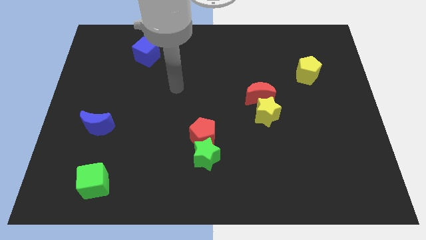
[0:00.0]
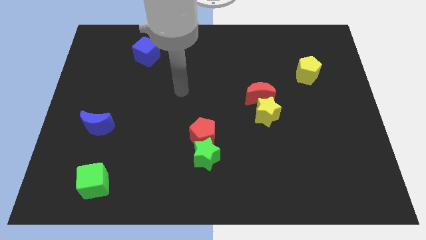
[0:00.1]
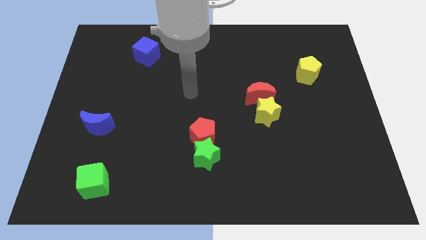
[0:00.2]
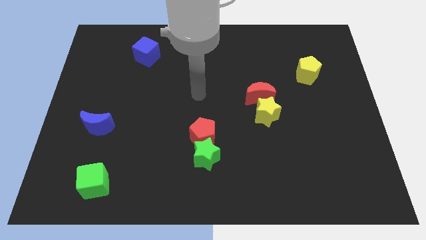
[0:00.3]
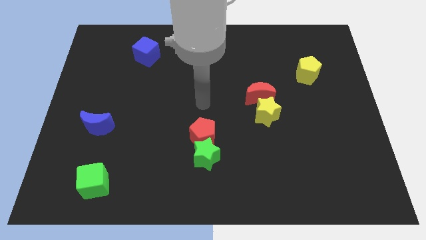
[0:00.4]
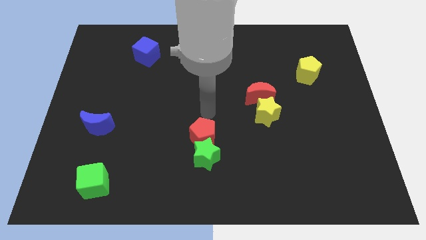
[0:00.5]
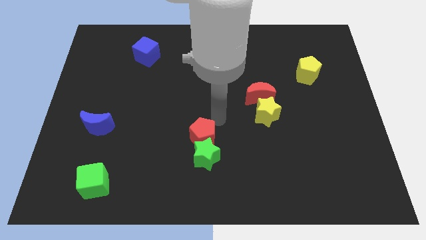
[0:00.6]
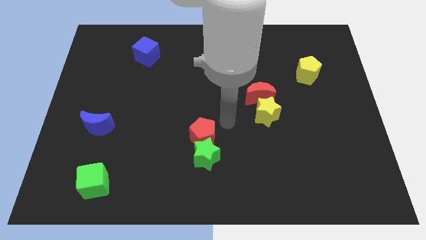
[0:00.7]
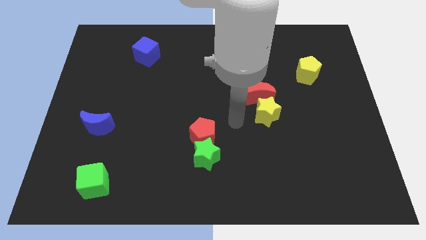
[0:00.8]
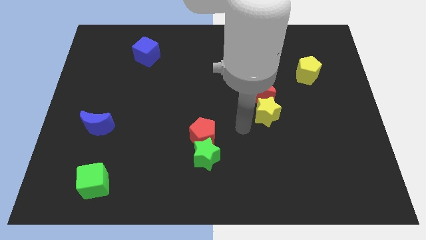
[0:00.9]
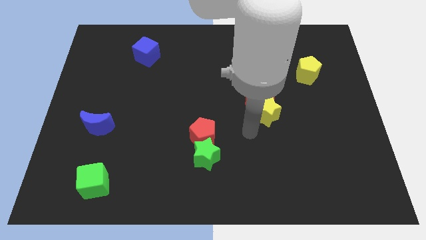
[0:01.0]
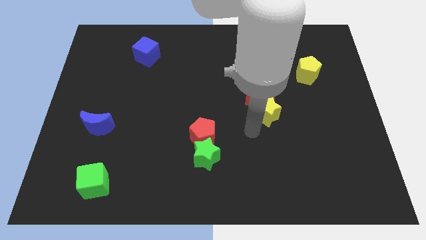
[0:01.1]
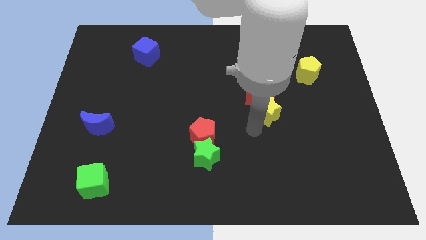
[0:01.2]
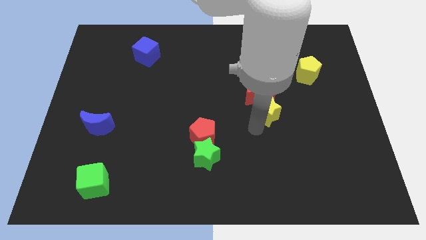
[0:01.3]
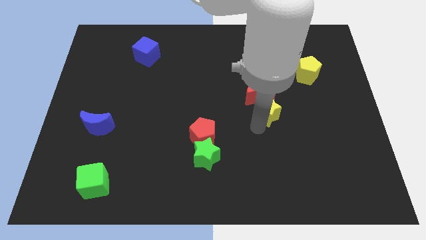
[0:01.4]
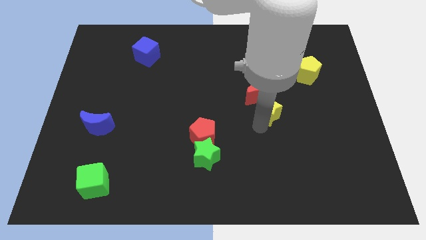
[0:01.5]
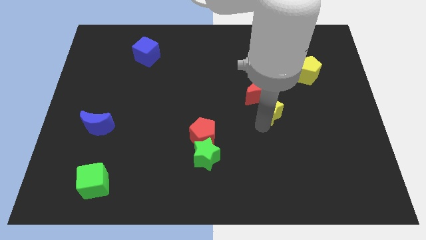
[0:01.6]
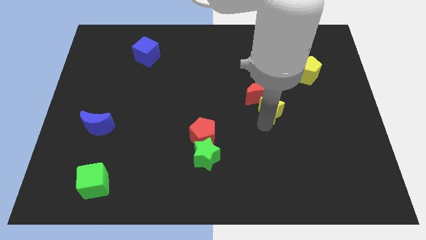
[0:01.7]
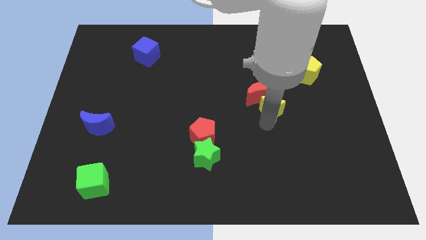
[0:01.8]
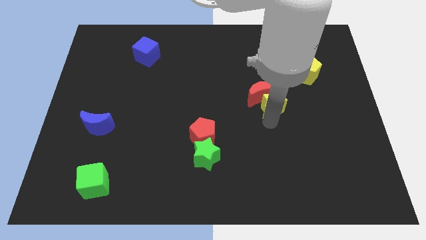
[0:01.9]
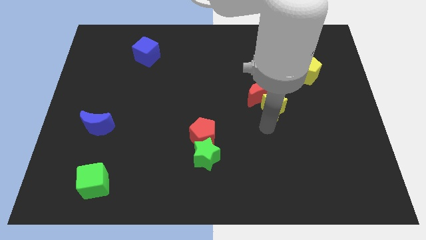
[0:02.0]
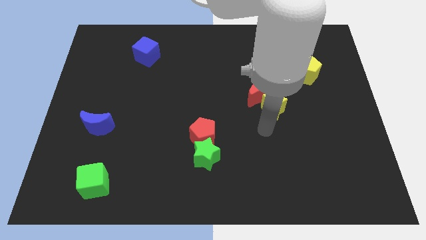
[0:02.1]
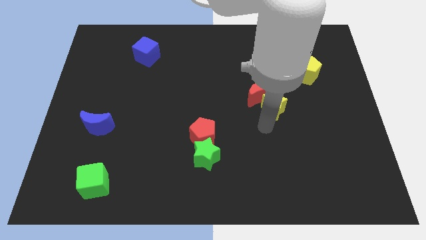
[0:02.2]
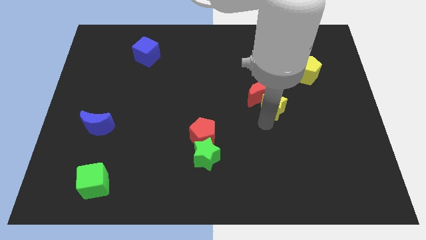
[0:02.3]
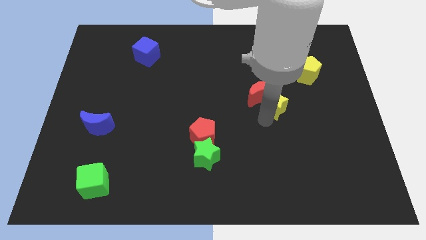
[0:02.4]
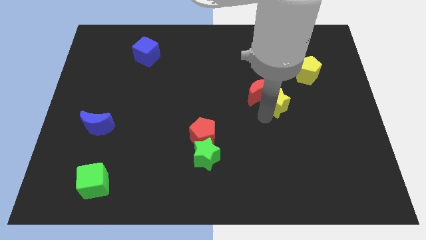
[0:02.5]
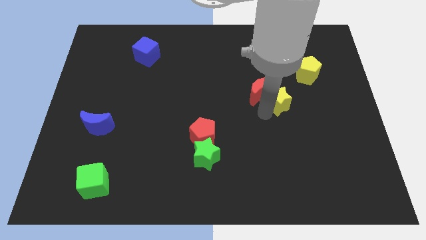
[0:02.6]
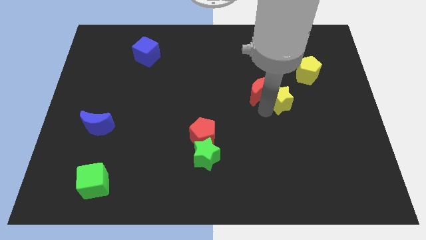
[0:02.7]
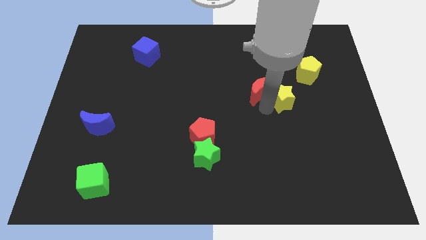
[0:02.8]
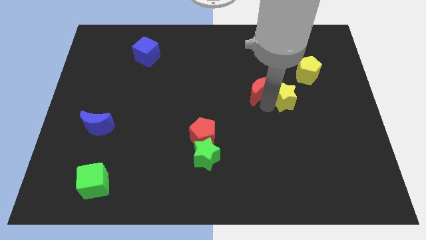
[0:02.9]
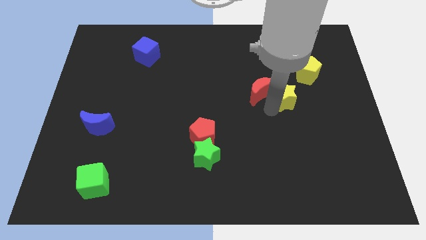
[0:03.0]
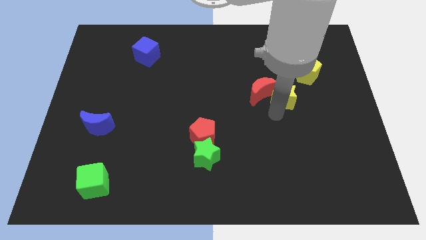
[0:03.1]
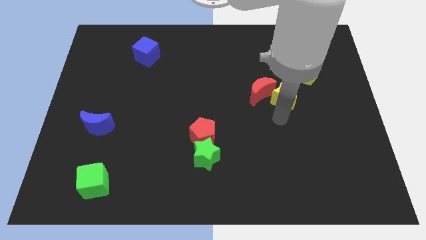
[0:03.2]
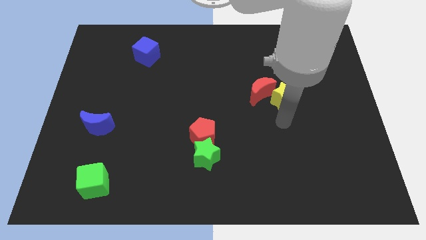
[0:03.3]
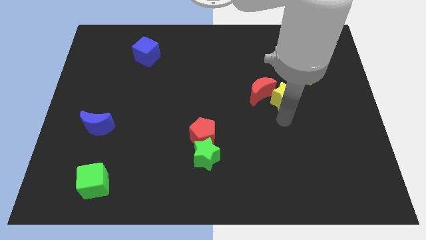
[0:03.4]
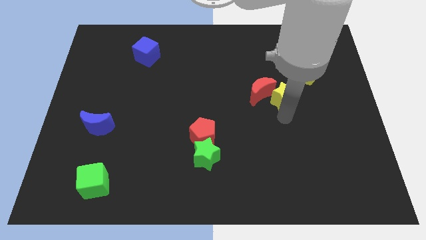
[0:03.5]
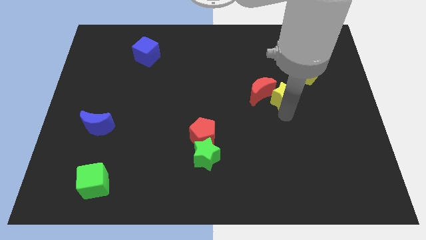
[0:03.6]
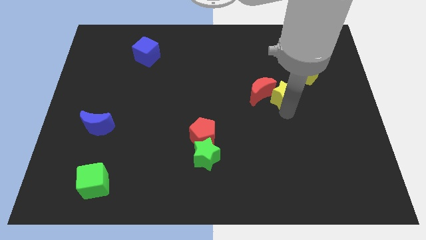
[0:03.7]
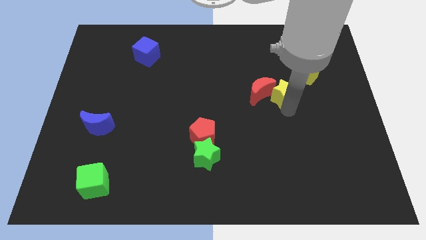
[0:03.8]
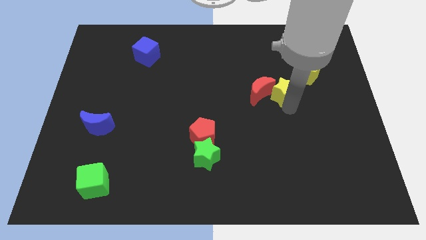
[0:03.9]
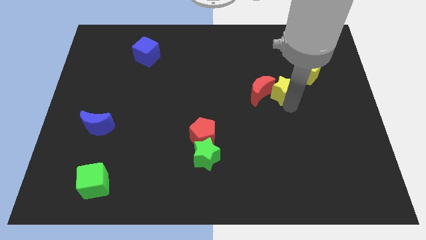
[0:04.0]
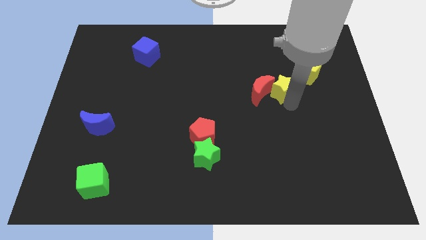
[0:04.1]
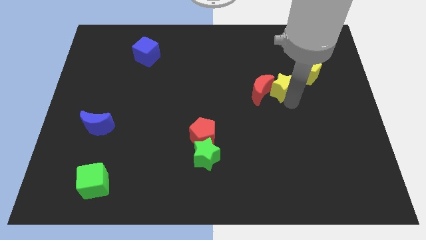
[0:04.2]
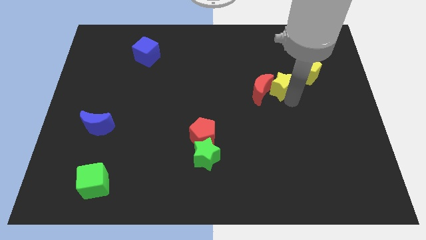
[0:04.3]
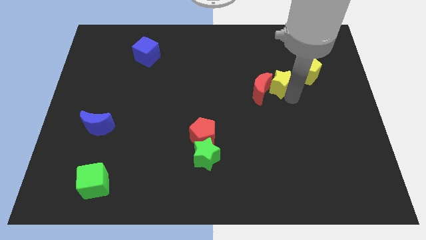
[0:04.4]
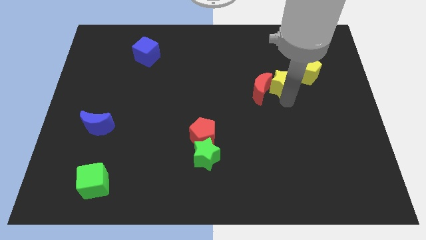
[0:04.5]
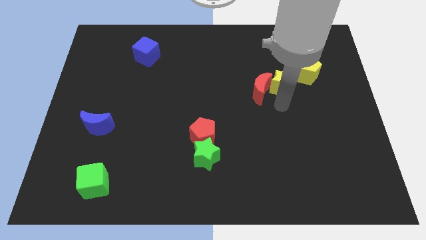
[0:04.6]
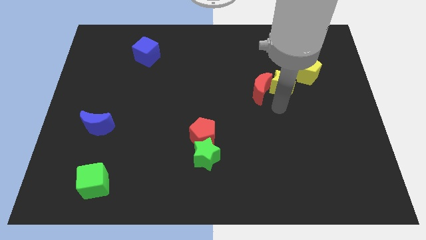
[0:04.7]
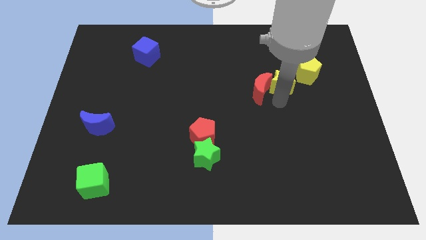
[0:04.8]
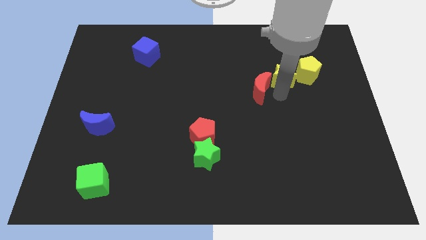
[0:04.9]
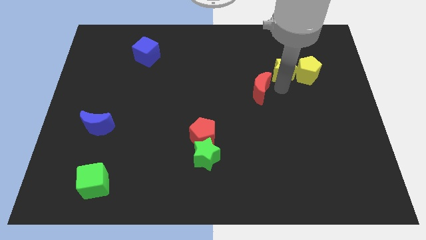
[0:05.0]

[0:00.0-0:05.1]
push the yellow star to the top left of the yellow pentagon

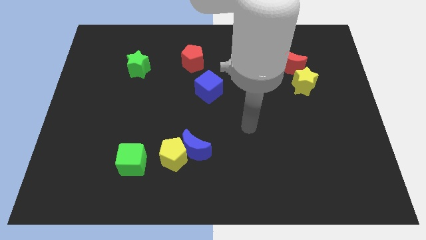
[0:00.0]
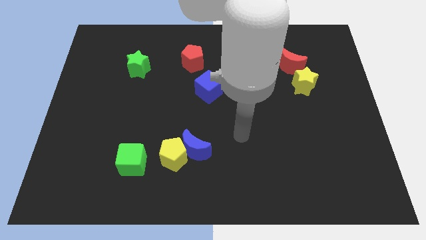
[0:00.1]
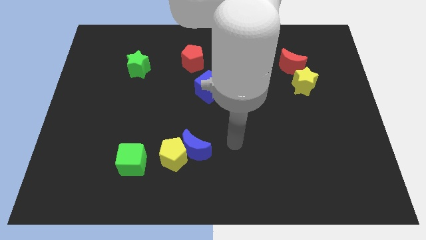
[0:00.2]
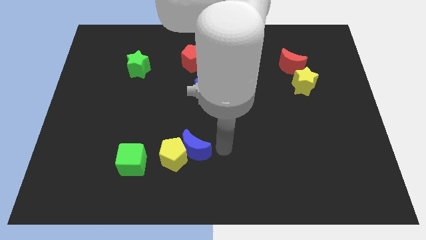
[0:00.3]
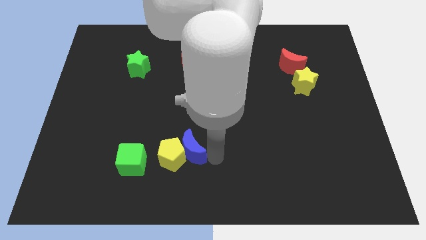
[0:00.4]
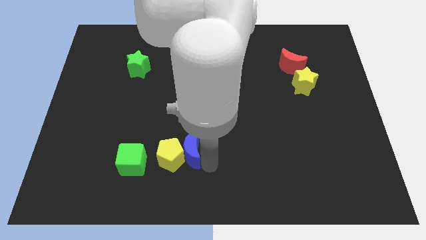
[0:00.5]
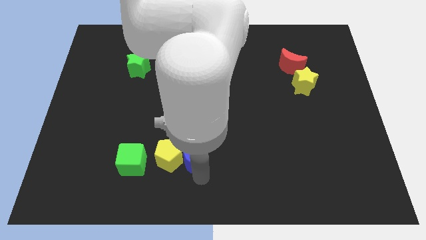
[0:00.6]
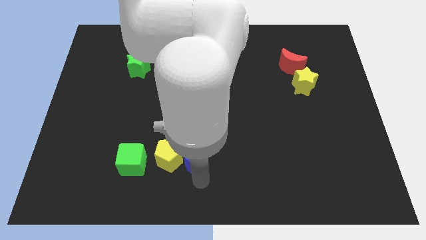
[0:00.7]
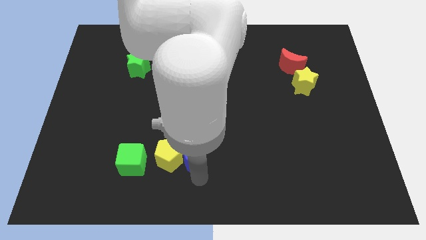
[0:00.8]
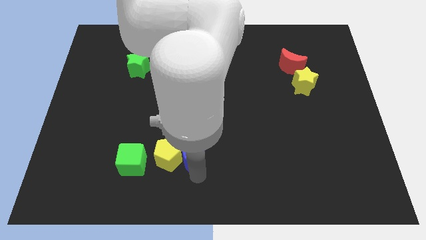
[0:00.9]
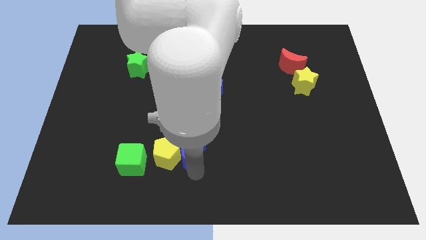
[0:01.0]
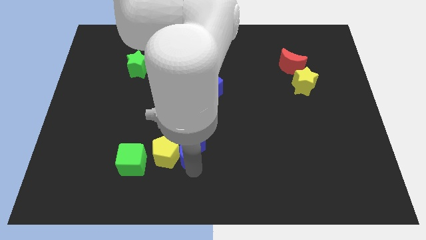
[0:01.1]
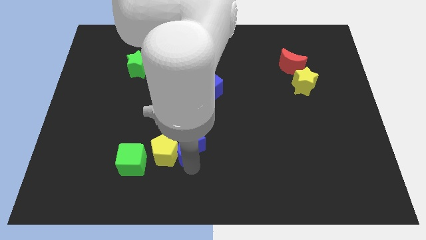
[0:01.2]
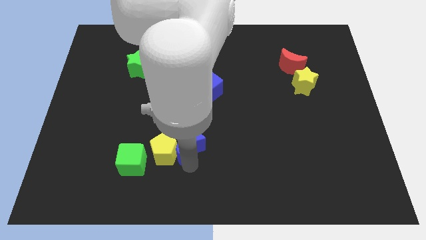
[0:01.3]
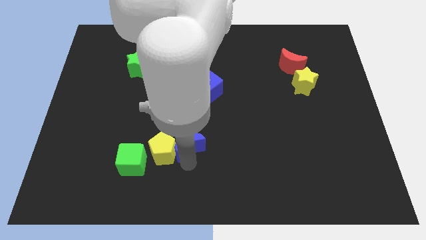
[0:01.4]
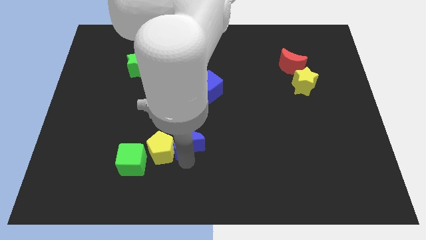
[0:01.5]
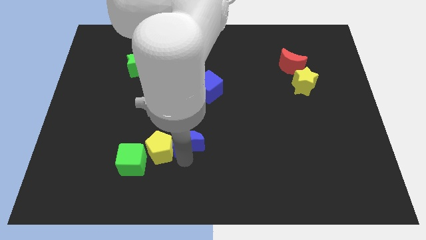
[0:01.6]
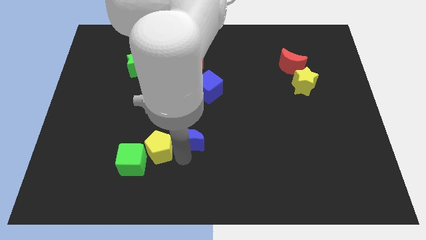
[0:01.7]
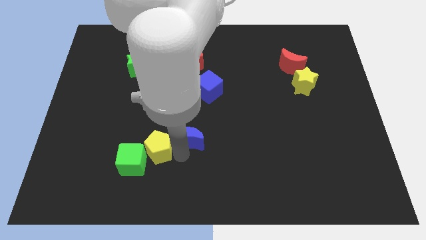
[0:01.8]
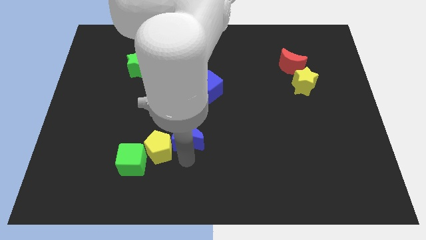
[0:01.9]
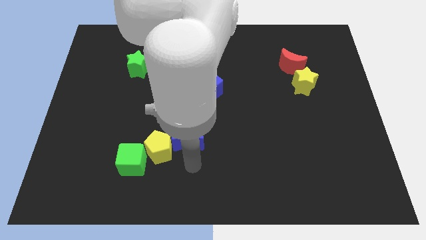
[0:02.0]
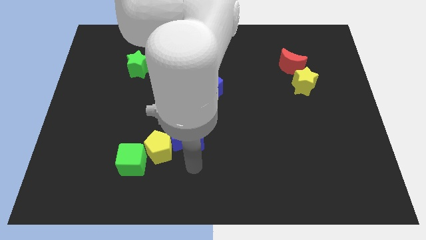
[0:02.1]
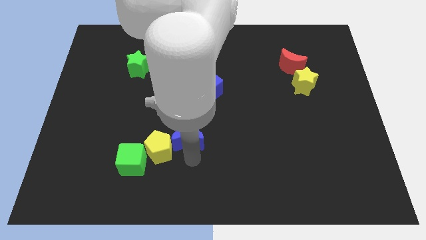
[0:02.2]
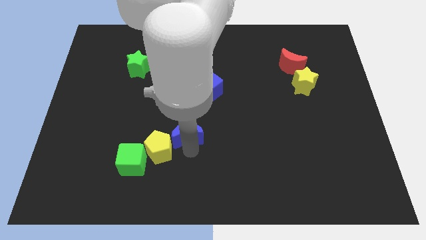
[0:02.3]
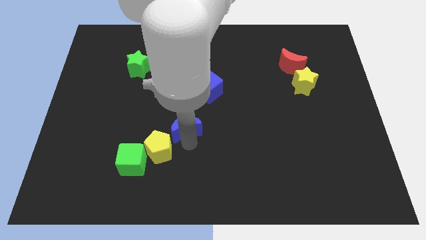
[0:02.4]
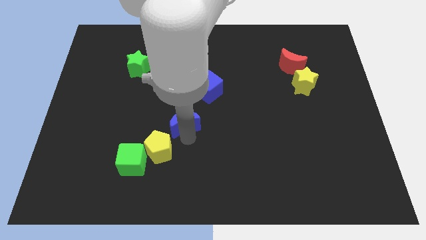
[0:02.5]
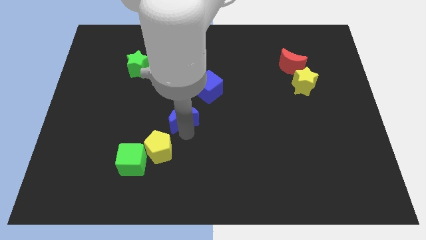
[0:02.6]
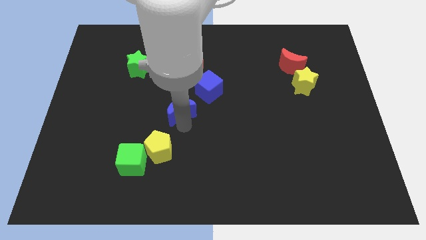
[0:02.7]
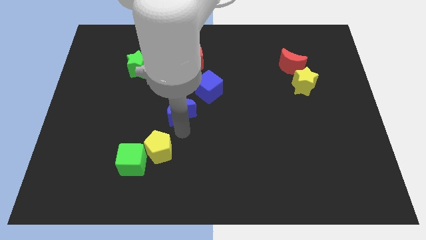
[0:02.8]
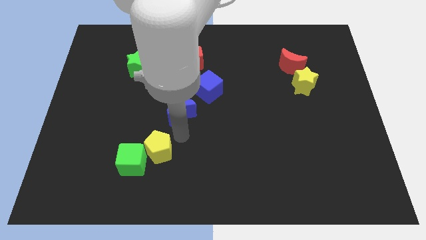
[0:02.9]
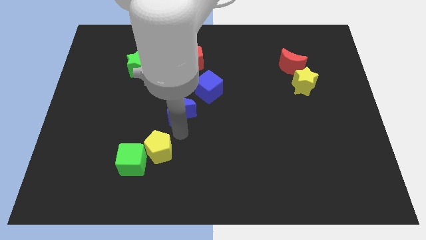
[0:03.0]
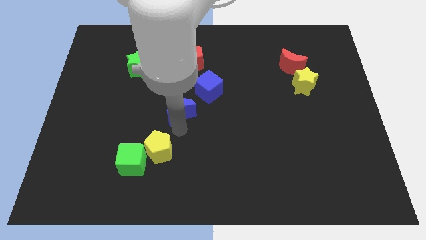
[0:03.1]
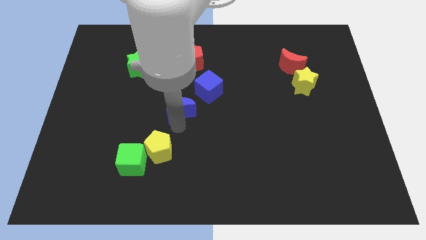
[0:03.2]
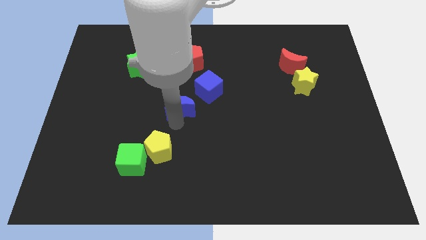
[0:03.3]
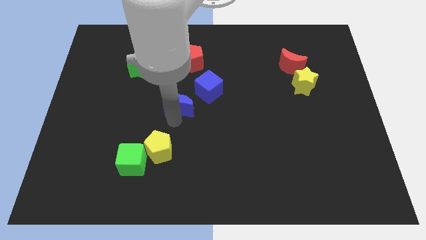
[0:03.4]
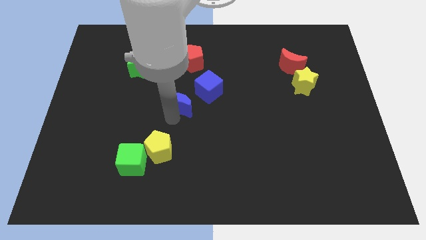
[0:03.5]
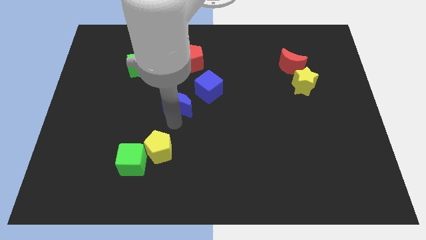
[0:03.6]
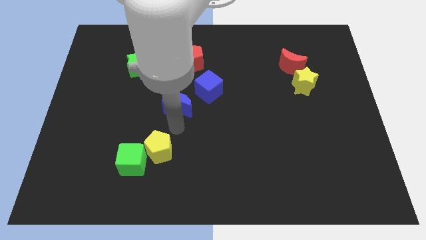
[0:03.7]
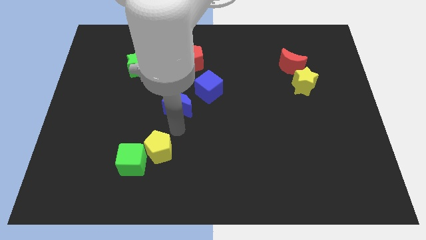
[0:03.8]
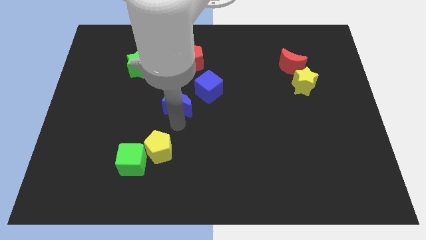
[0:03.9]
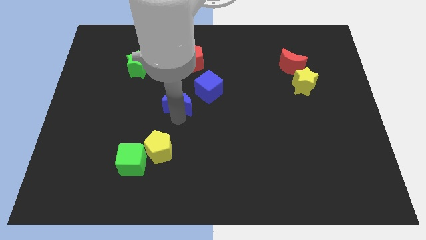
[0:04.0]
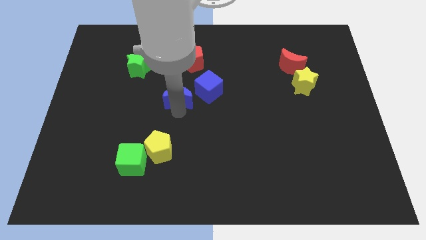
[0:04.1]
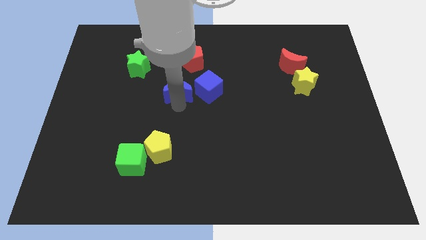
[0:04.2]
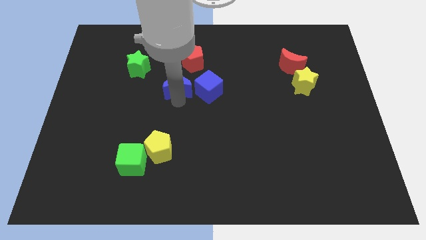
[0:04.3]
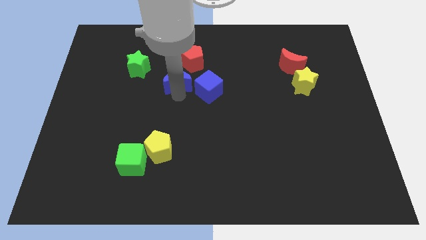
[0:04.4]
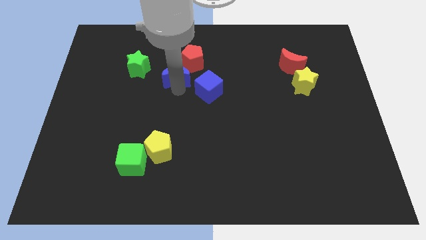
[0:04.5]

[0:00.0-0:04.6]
move the blue moon to the right of the green star
